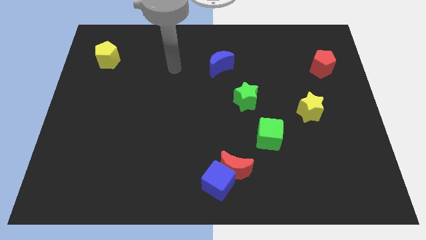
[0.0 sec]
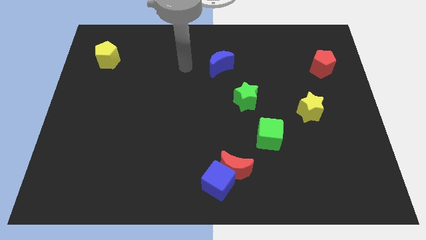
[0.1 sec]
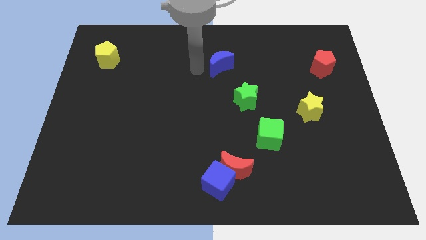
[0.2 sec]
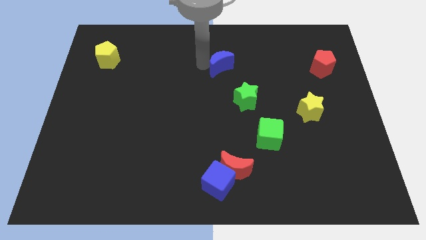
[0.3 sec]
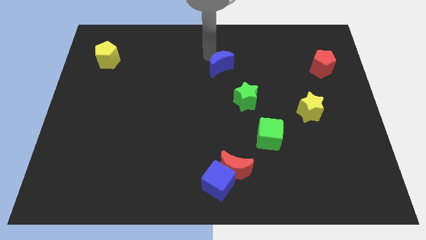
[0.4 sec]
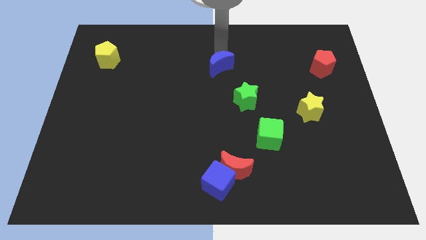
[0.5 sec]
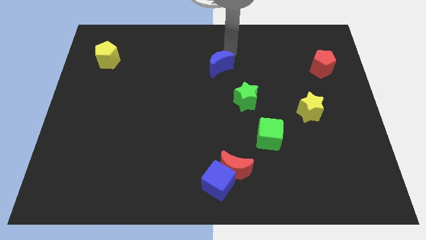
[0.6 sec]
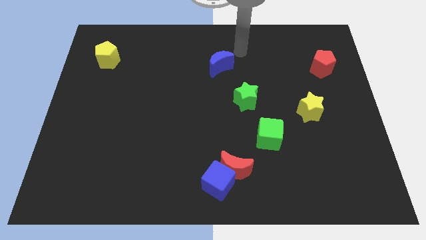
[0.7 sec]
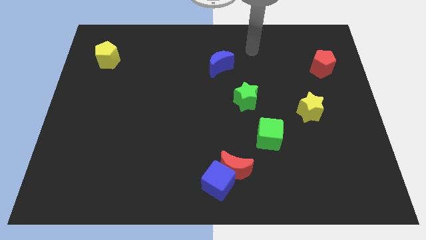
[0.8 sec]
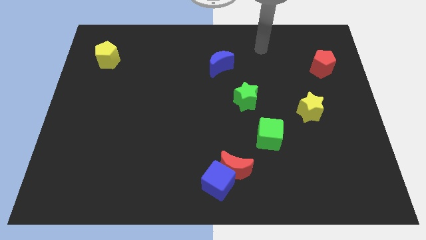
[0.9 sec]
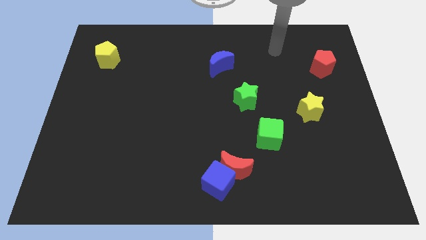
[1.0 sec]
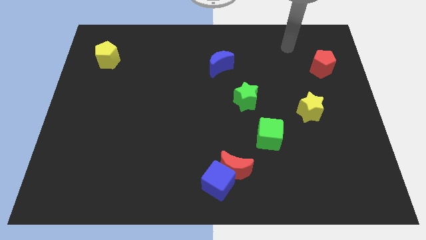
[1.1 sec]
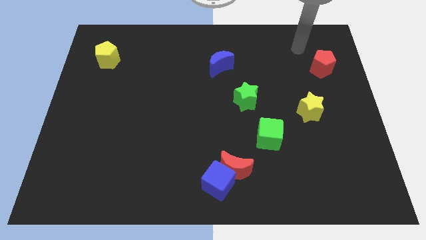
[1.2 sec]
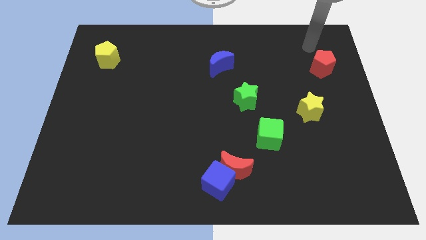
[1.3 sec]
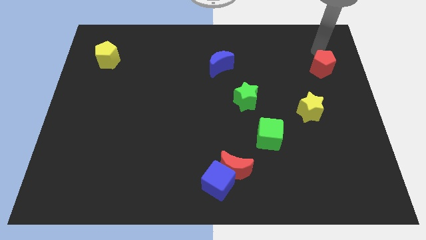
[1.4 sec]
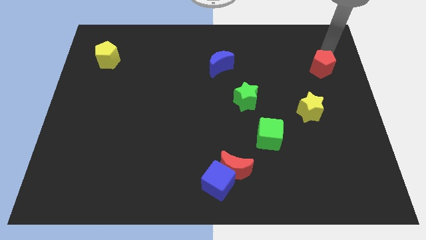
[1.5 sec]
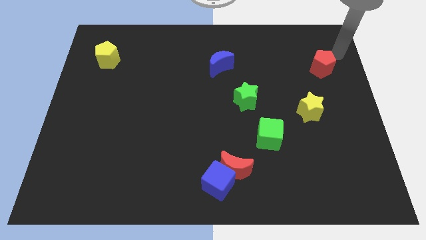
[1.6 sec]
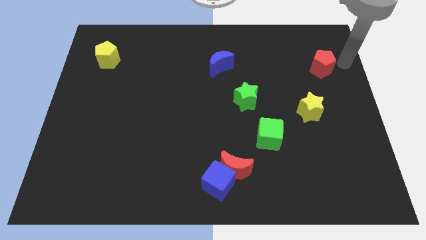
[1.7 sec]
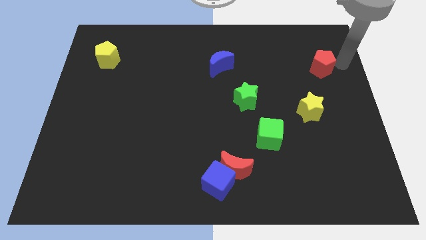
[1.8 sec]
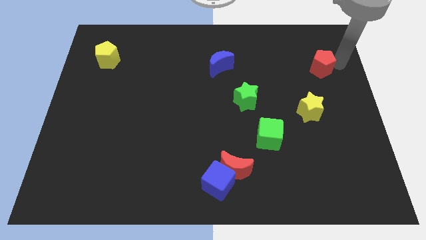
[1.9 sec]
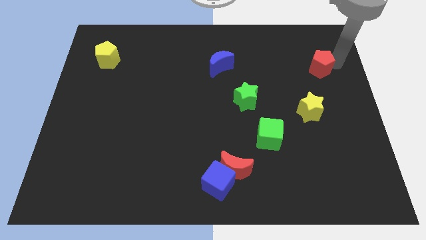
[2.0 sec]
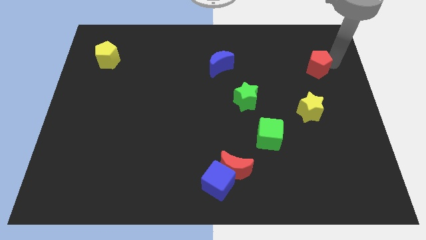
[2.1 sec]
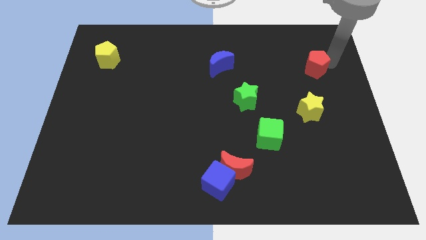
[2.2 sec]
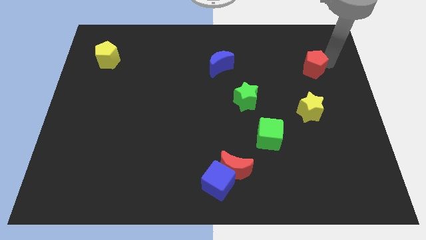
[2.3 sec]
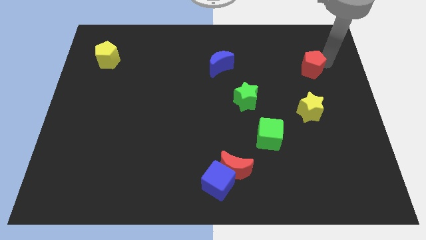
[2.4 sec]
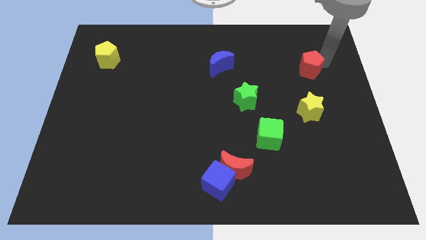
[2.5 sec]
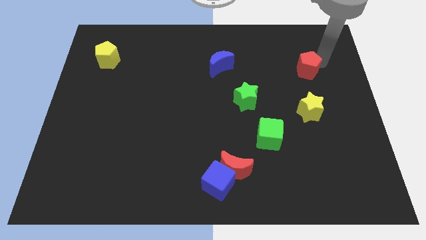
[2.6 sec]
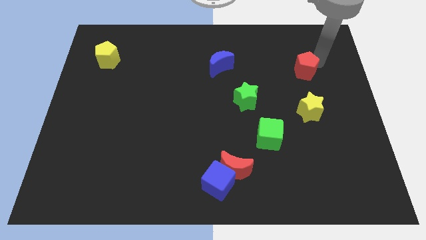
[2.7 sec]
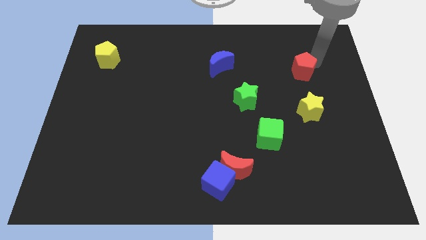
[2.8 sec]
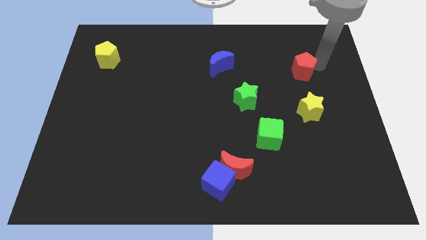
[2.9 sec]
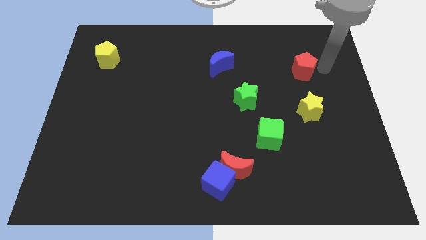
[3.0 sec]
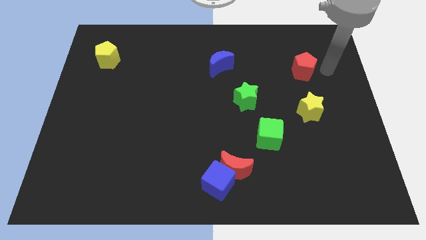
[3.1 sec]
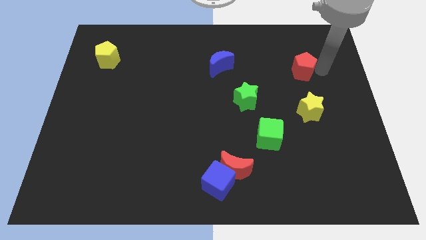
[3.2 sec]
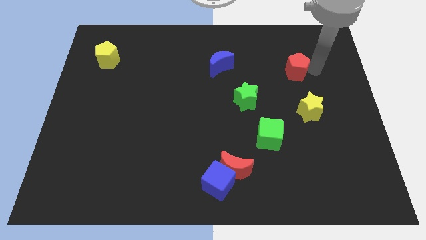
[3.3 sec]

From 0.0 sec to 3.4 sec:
slightly move the red pentagon to the left

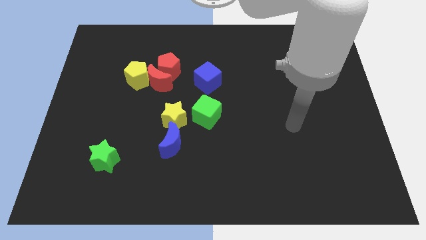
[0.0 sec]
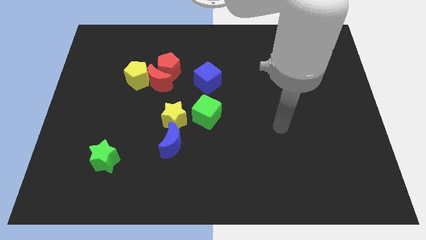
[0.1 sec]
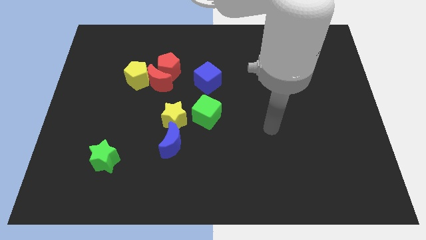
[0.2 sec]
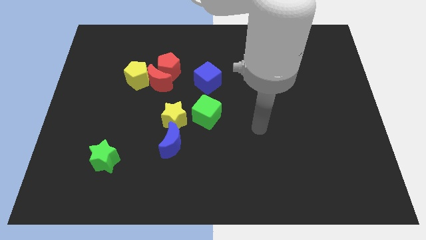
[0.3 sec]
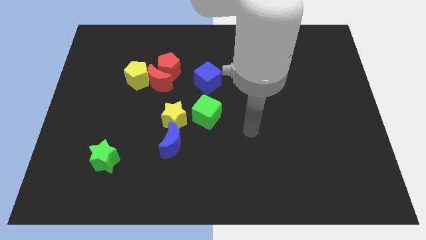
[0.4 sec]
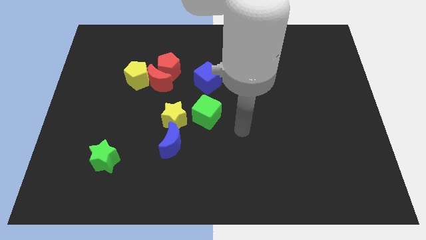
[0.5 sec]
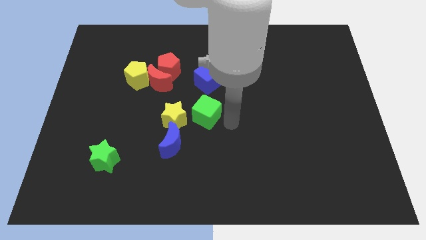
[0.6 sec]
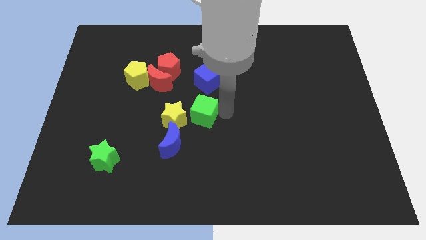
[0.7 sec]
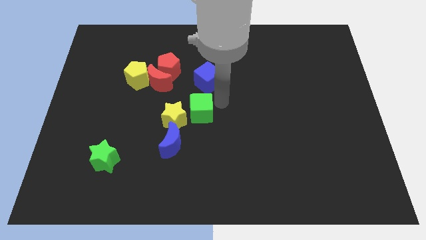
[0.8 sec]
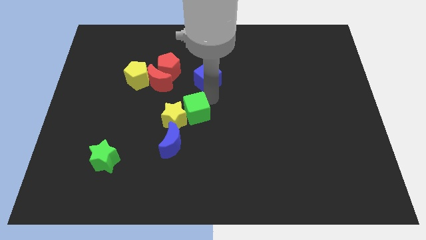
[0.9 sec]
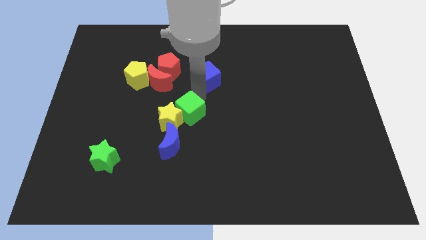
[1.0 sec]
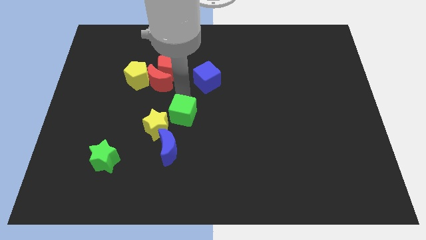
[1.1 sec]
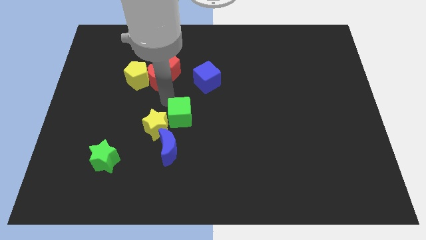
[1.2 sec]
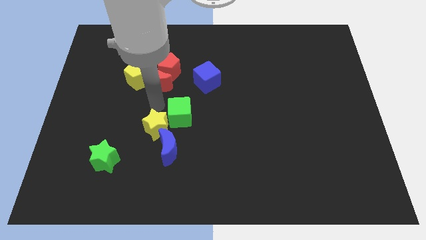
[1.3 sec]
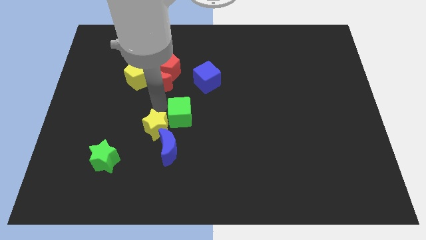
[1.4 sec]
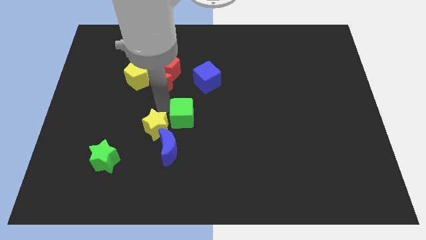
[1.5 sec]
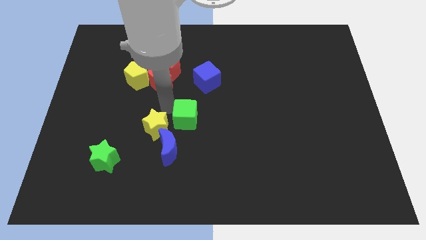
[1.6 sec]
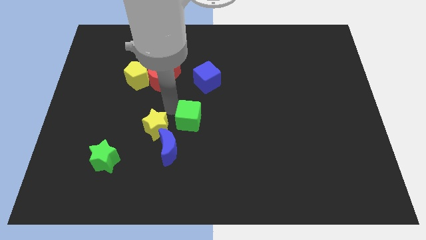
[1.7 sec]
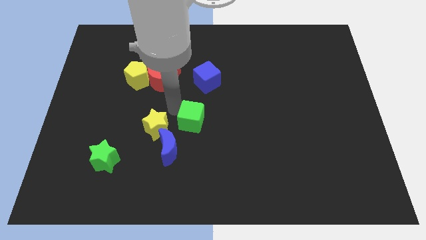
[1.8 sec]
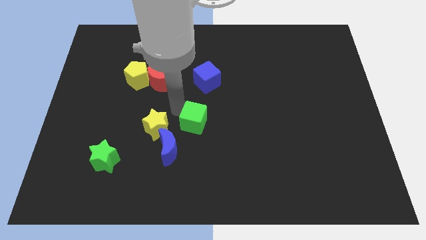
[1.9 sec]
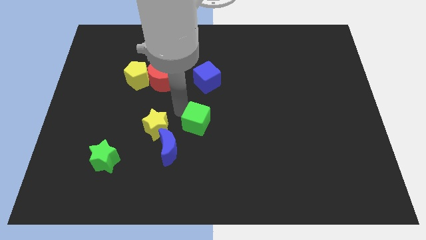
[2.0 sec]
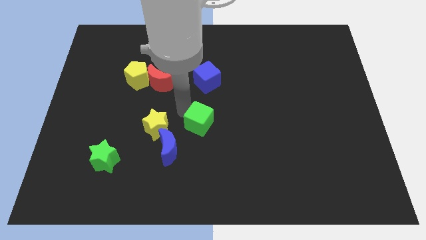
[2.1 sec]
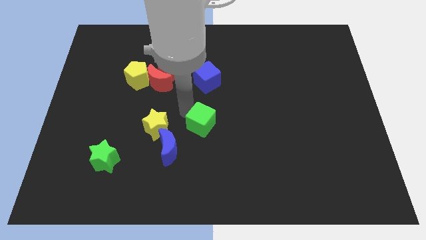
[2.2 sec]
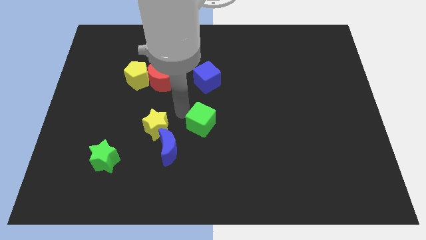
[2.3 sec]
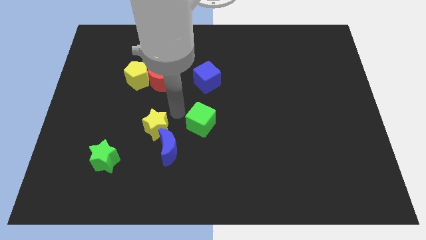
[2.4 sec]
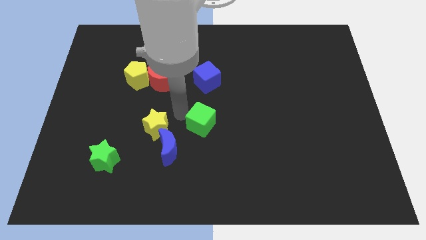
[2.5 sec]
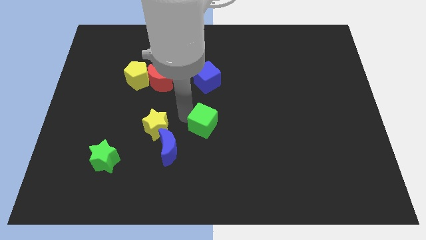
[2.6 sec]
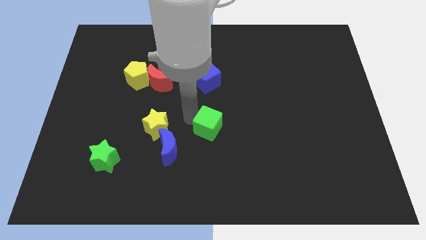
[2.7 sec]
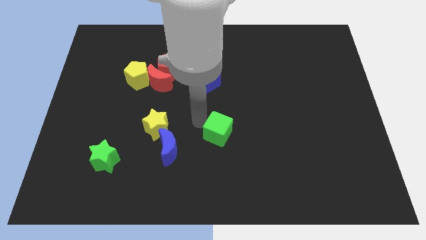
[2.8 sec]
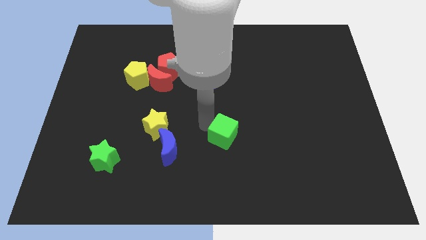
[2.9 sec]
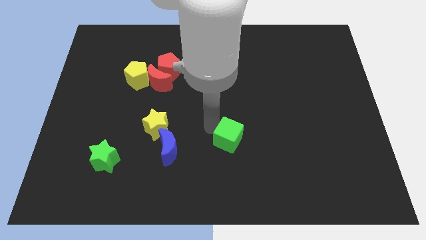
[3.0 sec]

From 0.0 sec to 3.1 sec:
slightly move the green cube down and to the right

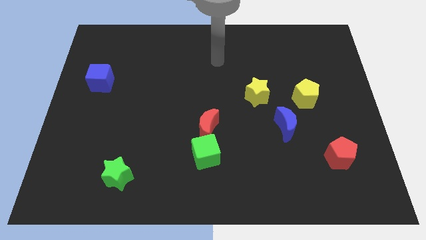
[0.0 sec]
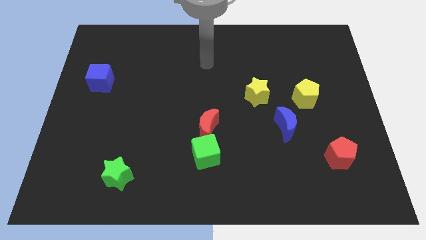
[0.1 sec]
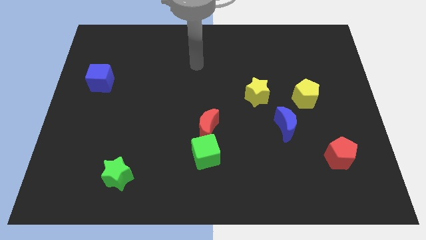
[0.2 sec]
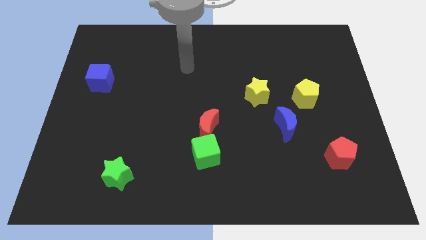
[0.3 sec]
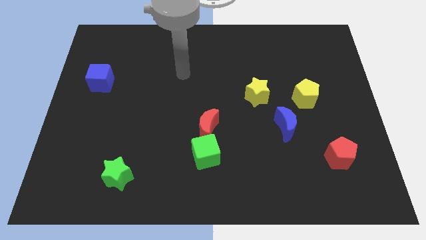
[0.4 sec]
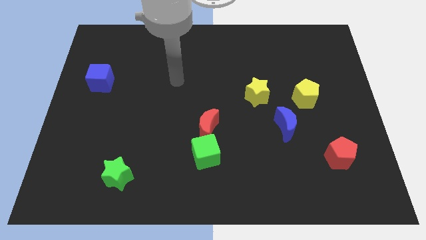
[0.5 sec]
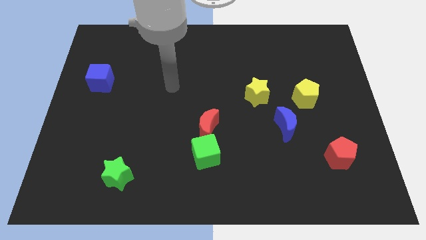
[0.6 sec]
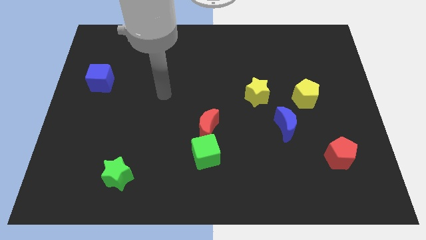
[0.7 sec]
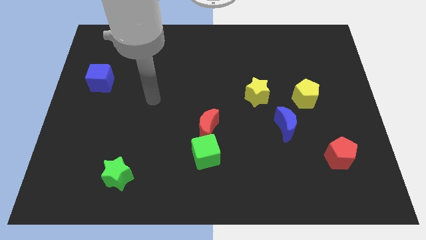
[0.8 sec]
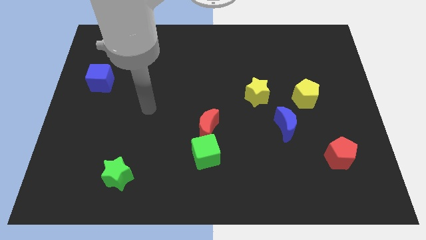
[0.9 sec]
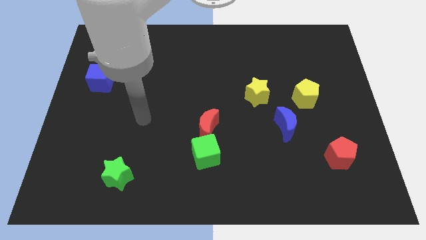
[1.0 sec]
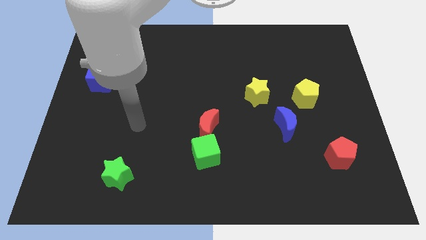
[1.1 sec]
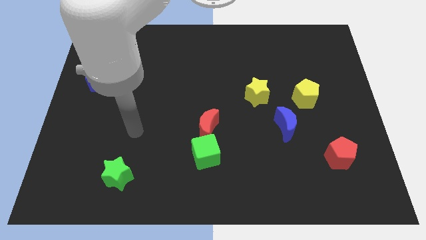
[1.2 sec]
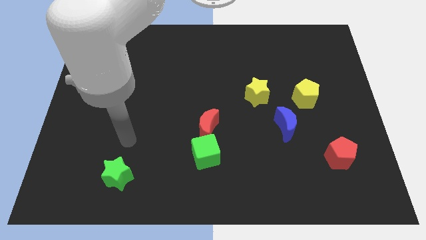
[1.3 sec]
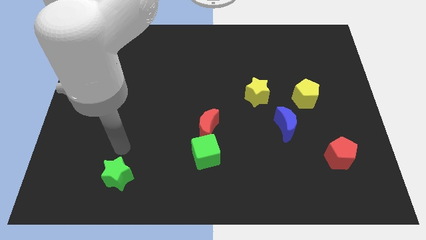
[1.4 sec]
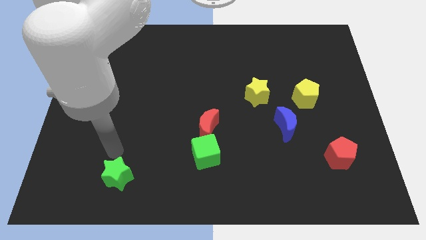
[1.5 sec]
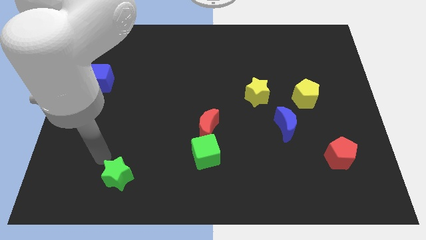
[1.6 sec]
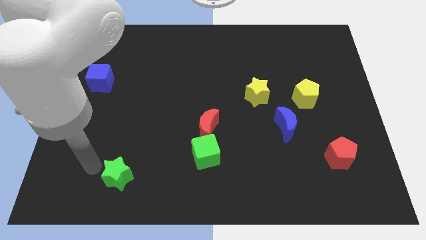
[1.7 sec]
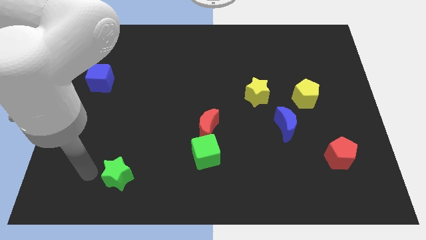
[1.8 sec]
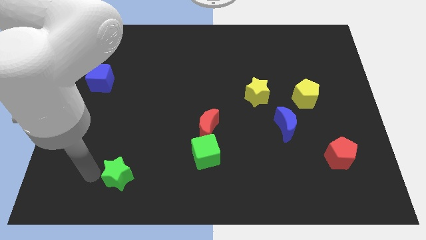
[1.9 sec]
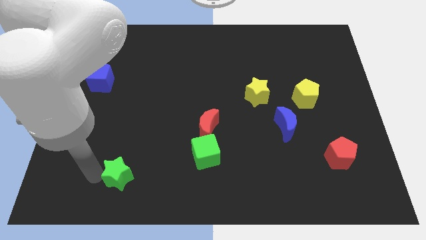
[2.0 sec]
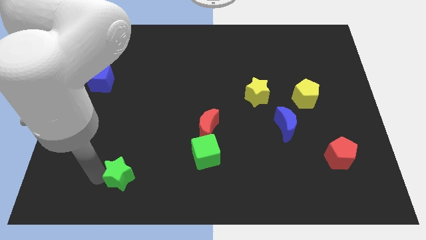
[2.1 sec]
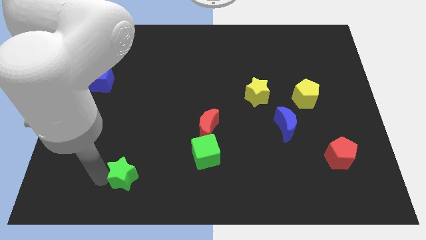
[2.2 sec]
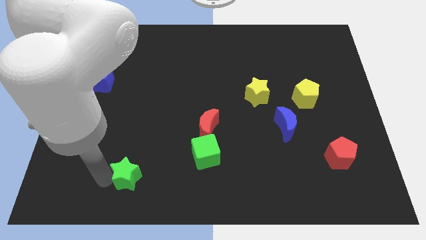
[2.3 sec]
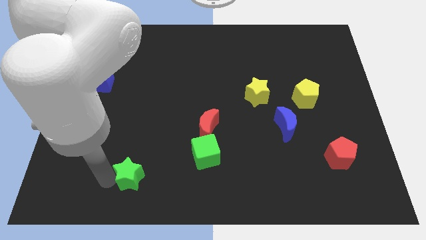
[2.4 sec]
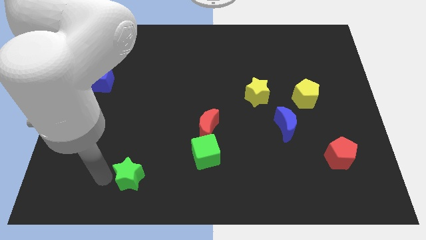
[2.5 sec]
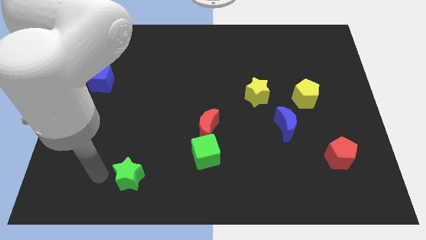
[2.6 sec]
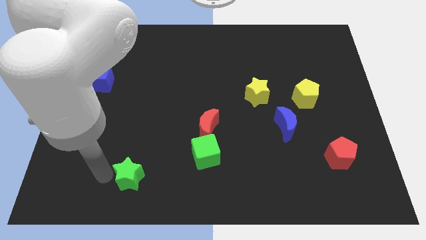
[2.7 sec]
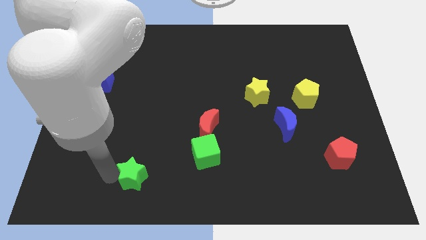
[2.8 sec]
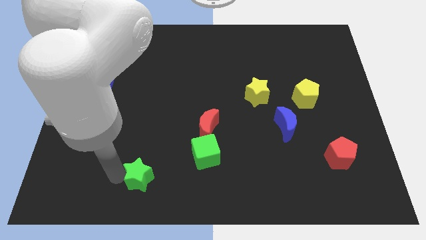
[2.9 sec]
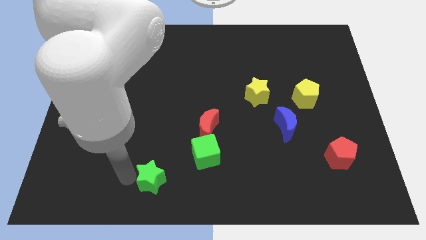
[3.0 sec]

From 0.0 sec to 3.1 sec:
move the green star a little to the right
